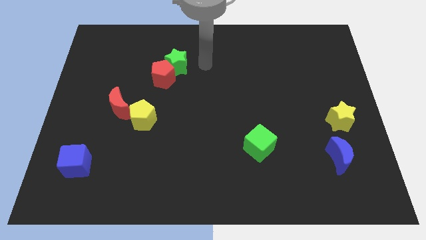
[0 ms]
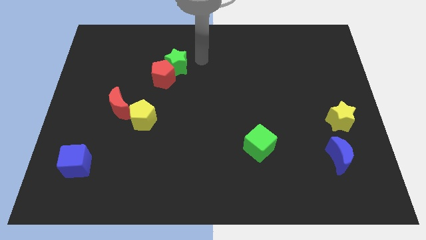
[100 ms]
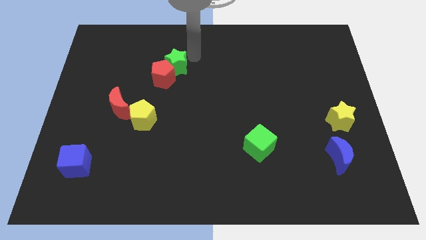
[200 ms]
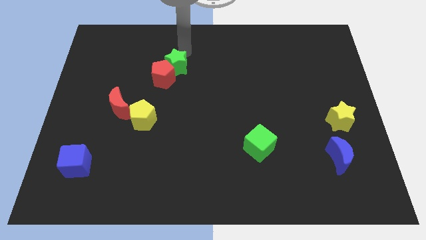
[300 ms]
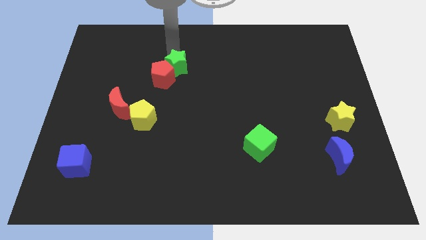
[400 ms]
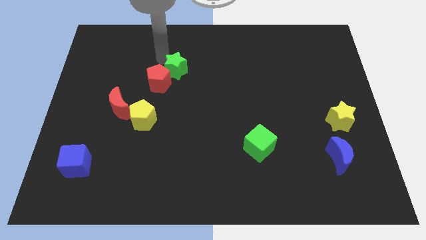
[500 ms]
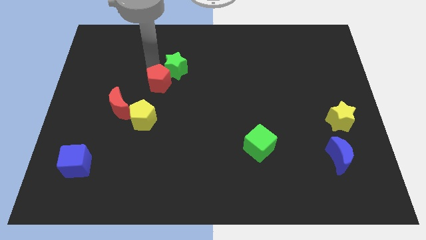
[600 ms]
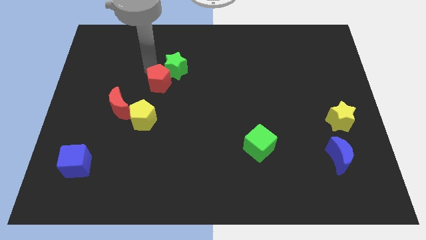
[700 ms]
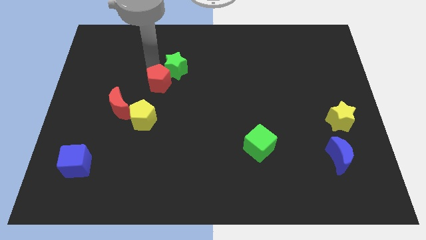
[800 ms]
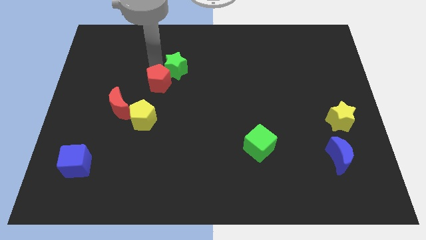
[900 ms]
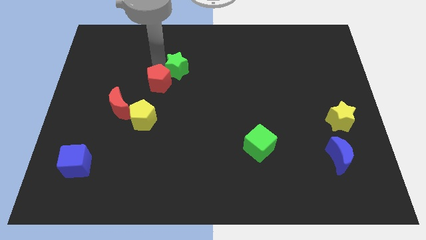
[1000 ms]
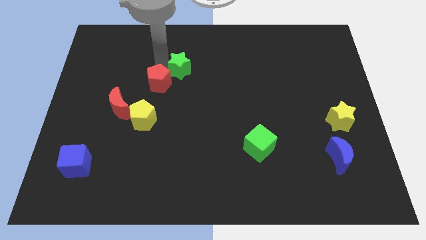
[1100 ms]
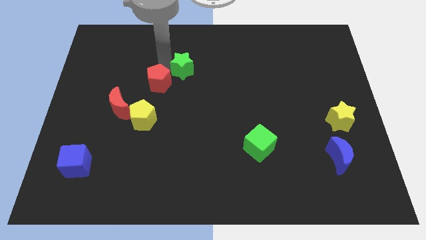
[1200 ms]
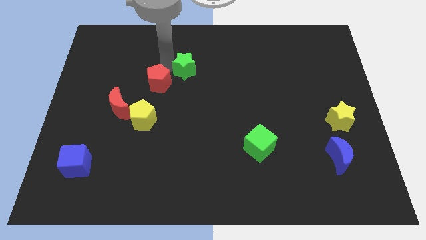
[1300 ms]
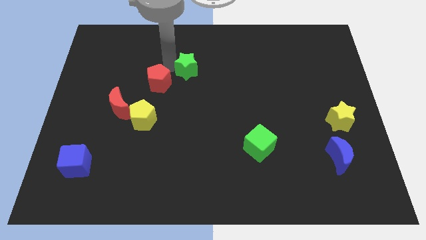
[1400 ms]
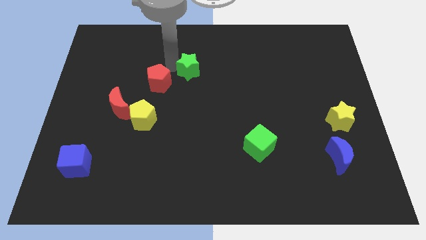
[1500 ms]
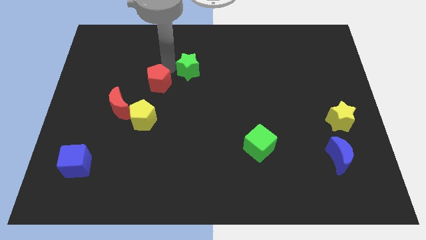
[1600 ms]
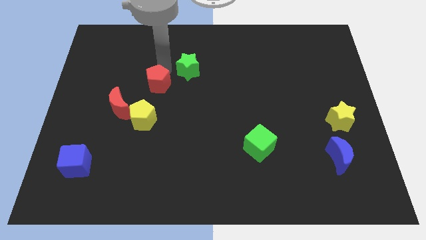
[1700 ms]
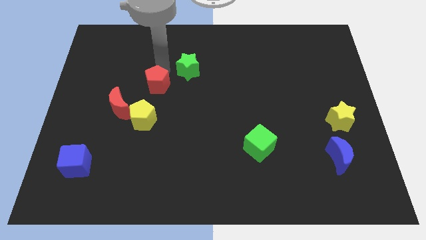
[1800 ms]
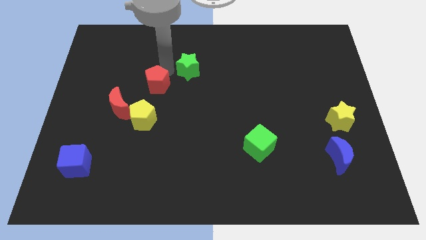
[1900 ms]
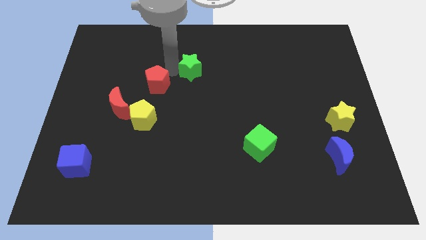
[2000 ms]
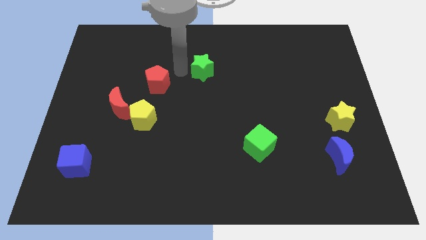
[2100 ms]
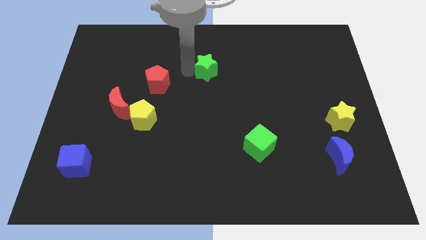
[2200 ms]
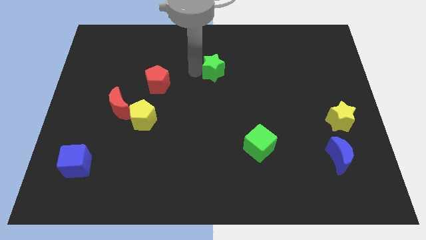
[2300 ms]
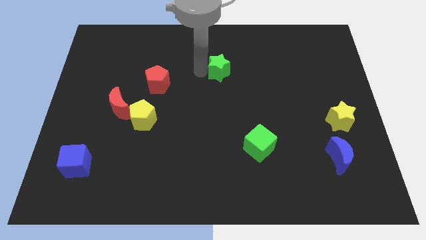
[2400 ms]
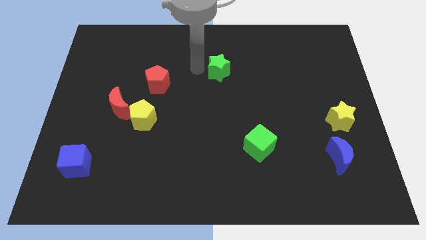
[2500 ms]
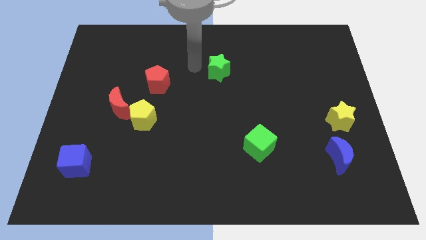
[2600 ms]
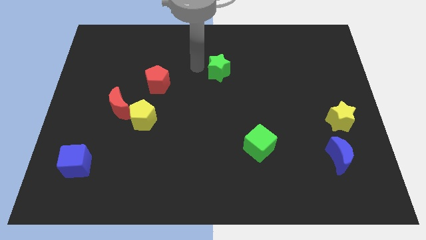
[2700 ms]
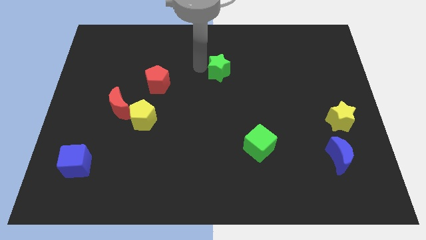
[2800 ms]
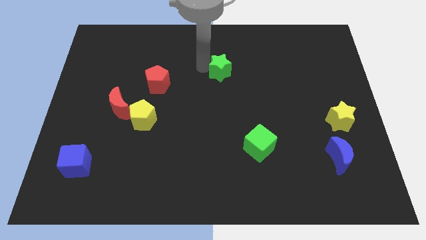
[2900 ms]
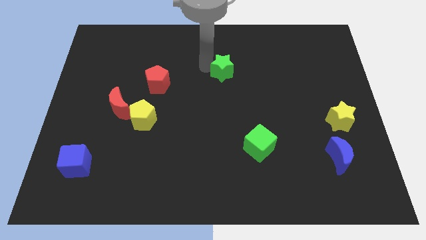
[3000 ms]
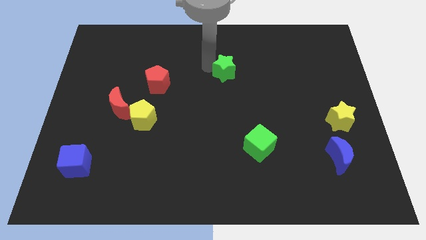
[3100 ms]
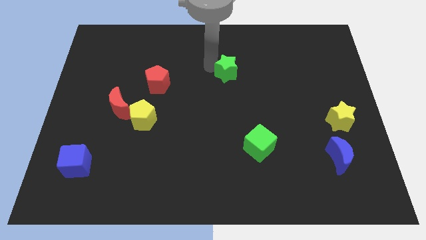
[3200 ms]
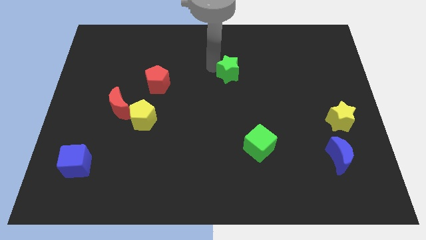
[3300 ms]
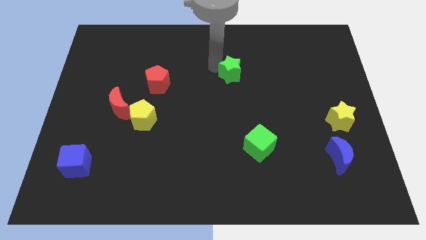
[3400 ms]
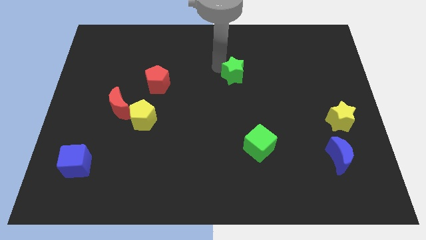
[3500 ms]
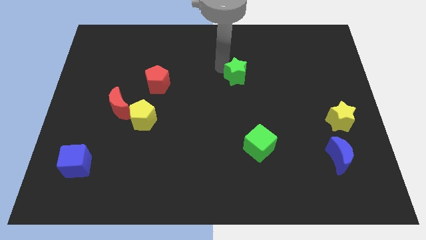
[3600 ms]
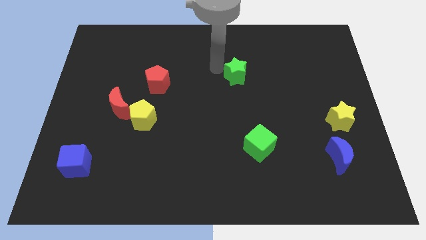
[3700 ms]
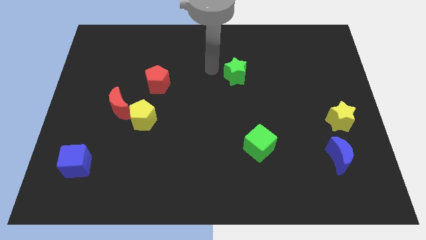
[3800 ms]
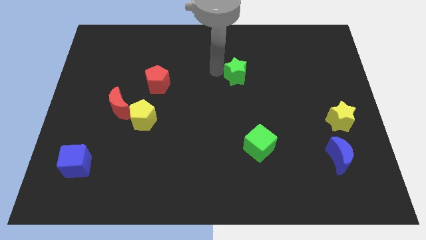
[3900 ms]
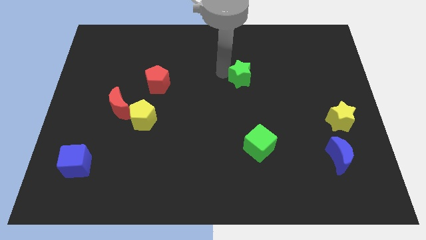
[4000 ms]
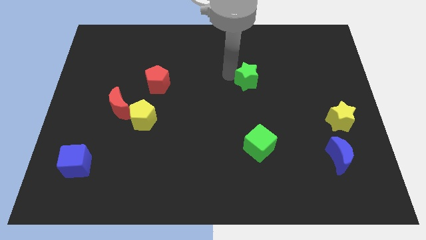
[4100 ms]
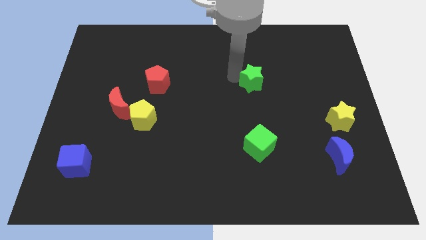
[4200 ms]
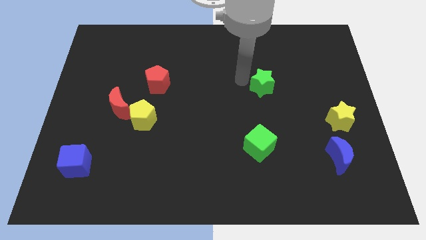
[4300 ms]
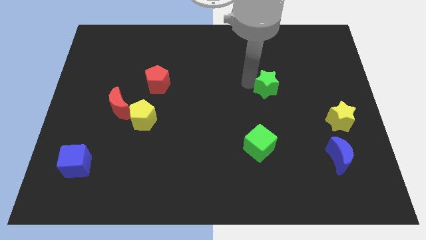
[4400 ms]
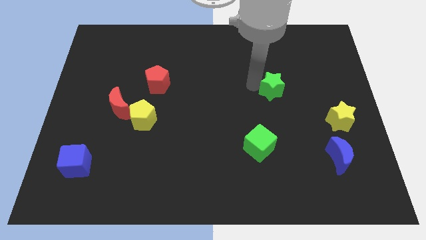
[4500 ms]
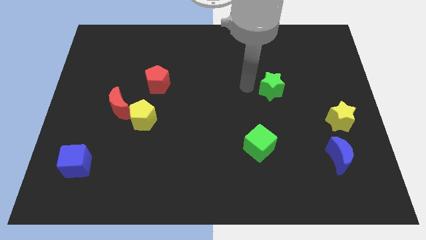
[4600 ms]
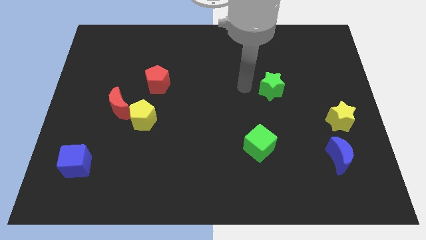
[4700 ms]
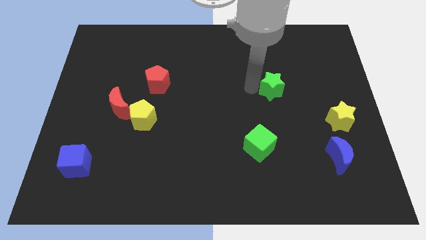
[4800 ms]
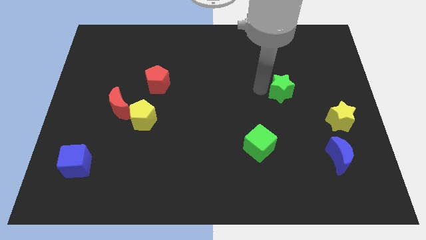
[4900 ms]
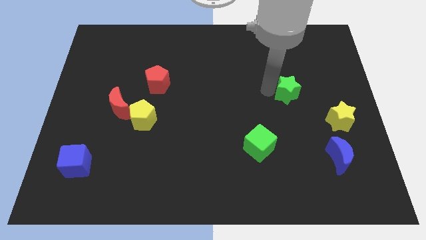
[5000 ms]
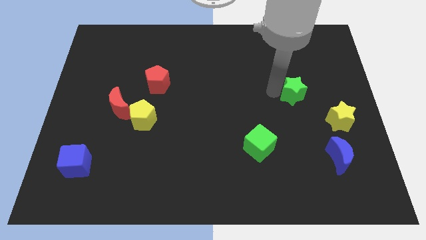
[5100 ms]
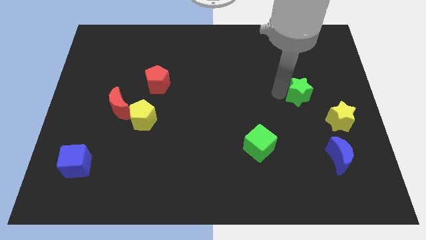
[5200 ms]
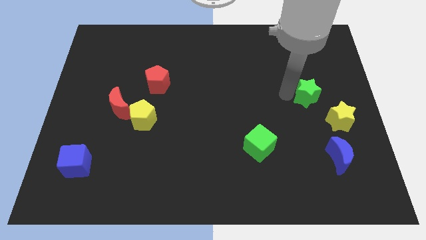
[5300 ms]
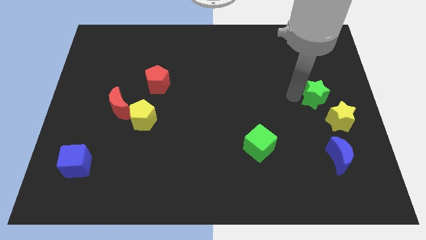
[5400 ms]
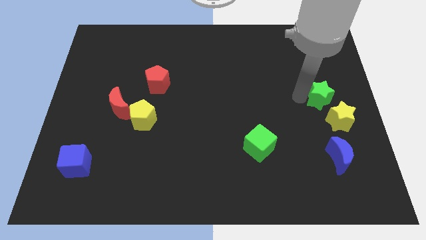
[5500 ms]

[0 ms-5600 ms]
slide the green star to the center right

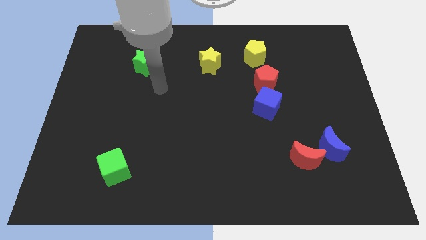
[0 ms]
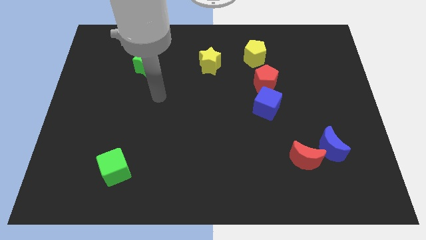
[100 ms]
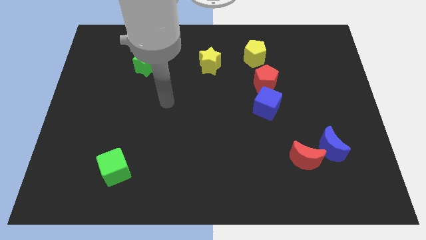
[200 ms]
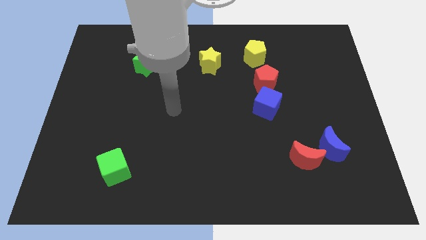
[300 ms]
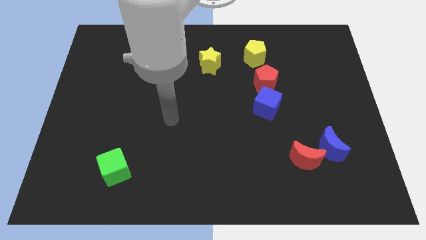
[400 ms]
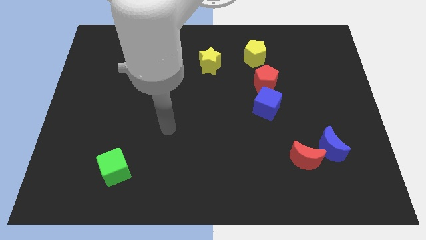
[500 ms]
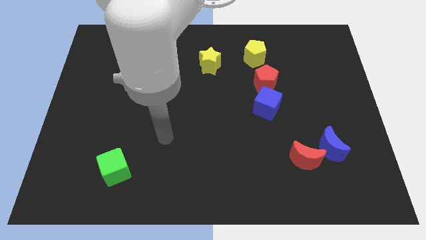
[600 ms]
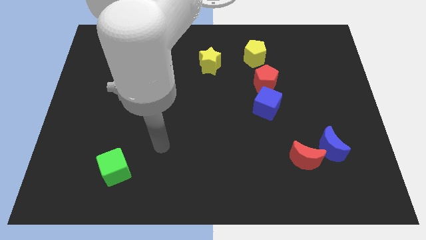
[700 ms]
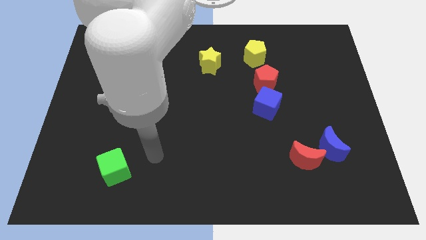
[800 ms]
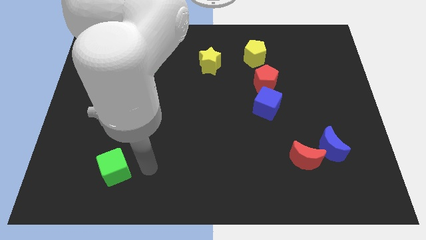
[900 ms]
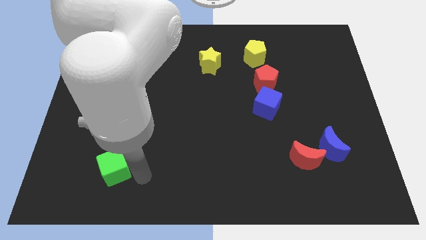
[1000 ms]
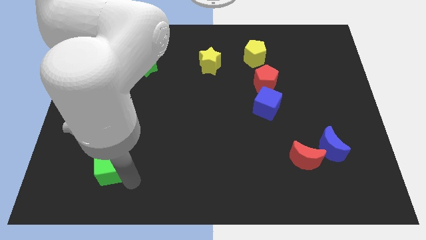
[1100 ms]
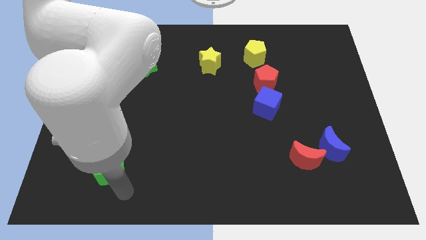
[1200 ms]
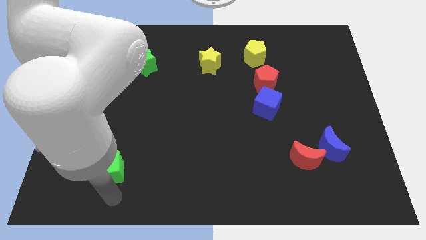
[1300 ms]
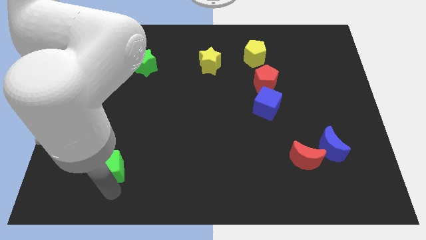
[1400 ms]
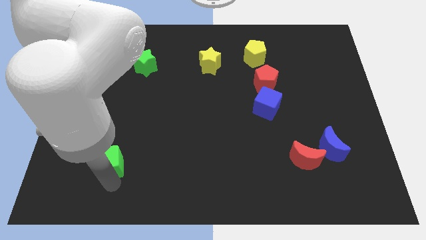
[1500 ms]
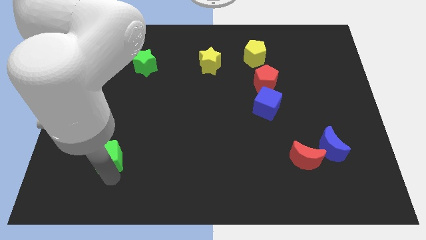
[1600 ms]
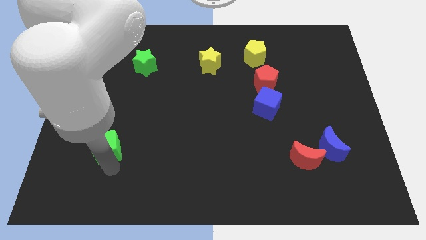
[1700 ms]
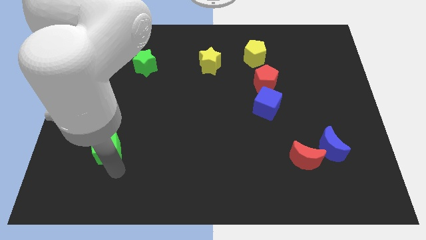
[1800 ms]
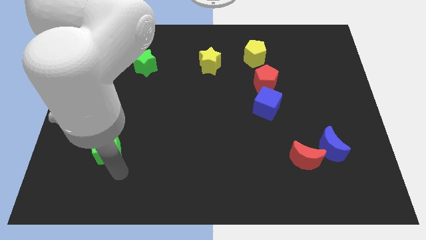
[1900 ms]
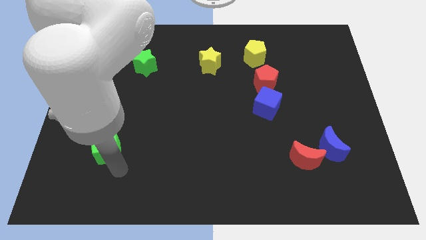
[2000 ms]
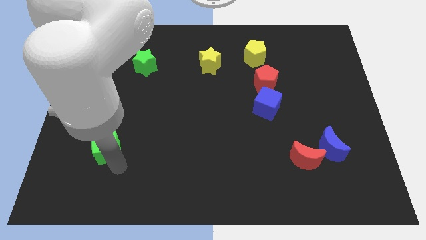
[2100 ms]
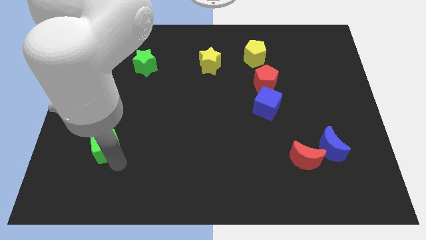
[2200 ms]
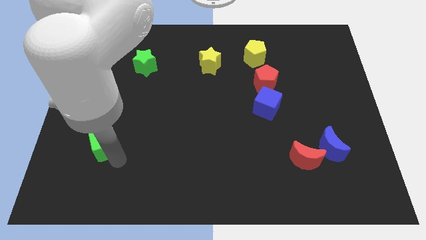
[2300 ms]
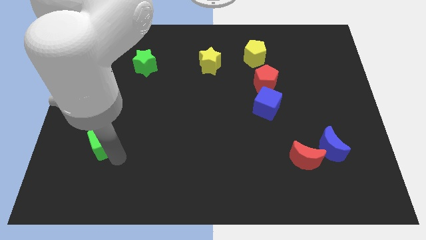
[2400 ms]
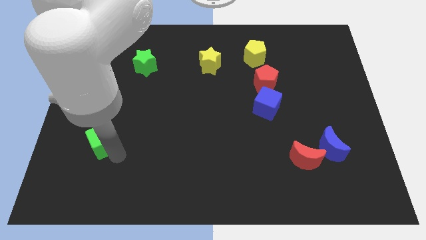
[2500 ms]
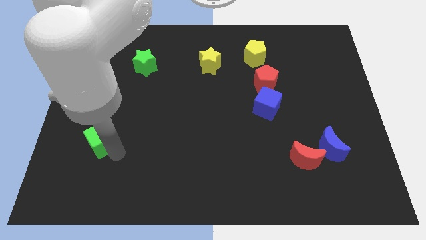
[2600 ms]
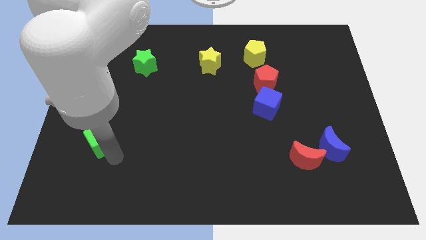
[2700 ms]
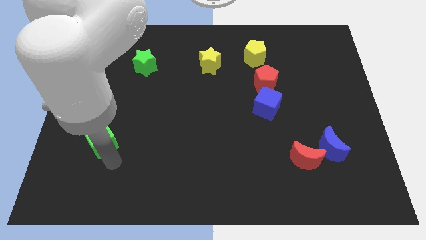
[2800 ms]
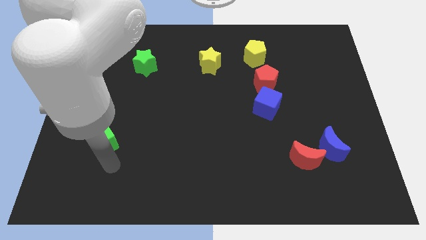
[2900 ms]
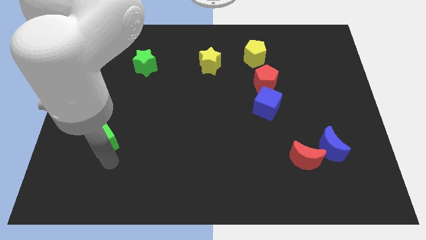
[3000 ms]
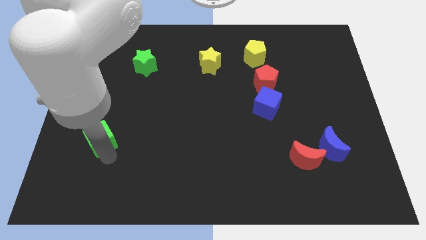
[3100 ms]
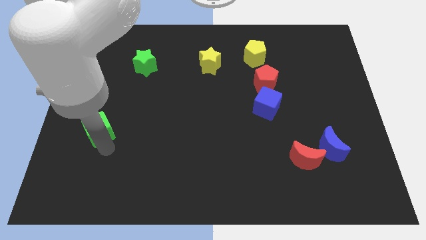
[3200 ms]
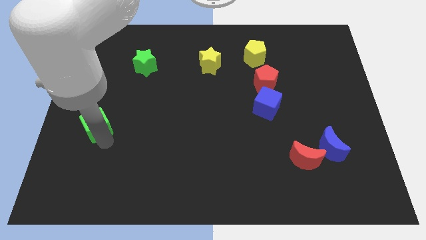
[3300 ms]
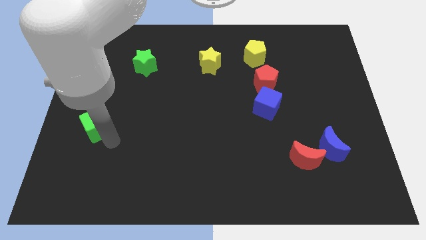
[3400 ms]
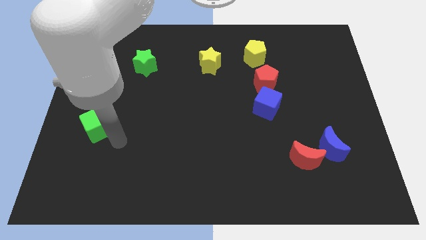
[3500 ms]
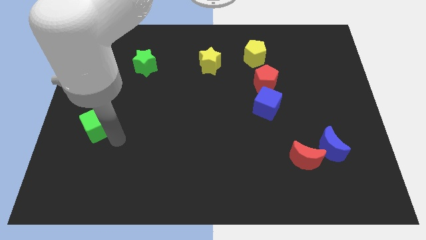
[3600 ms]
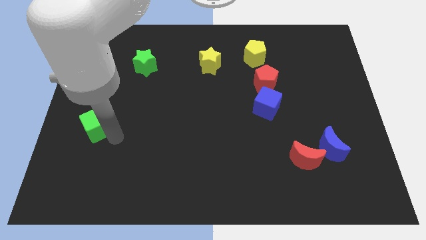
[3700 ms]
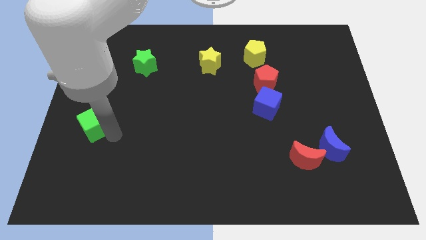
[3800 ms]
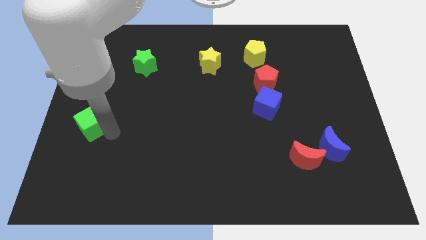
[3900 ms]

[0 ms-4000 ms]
slide the green cube to the left side
